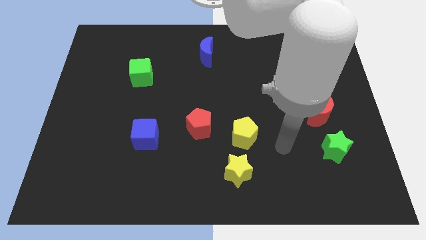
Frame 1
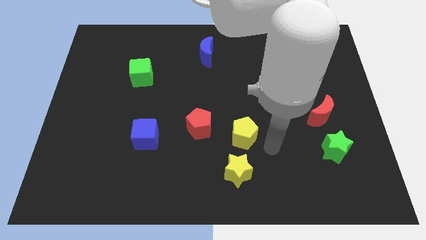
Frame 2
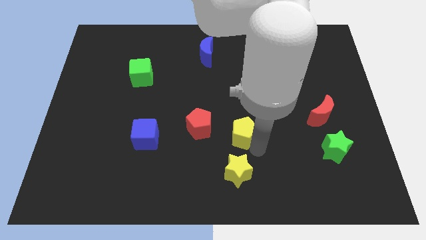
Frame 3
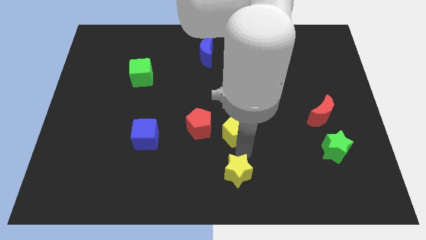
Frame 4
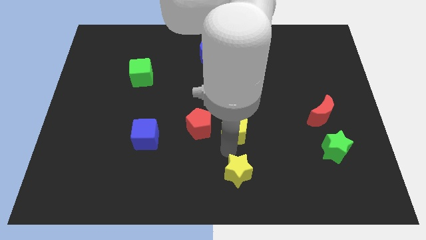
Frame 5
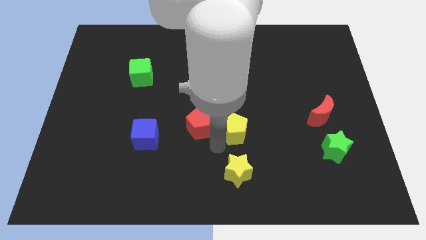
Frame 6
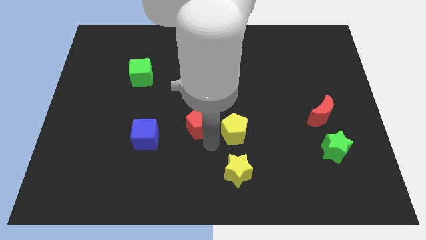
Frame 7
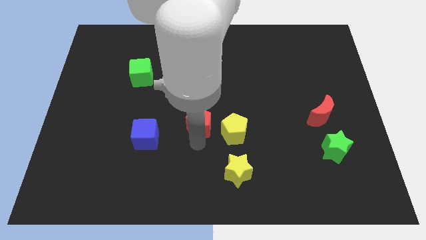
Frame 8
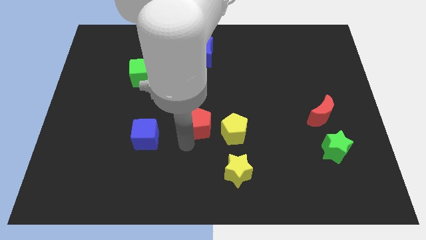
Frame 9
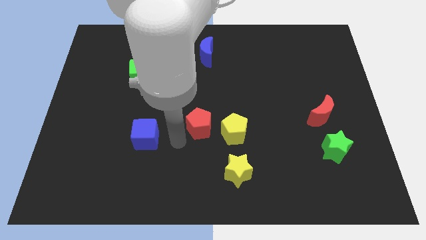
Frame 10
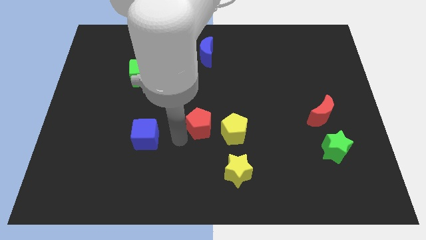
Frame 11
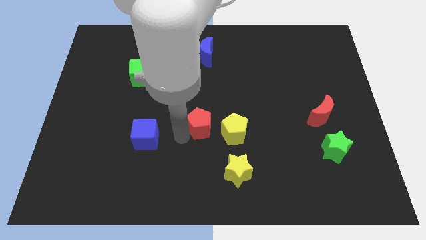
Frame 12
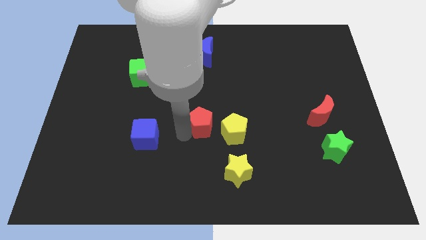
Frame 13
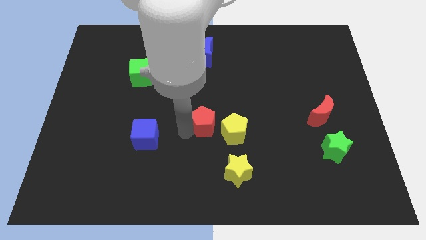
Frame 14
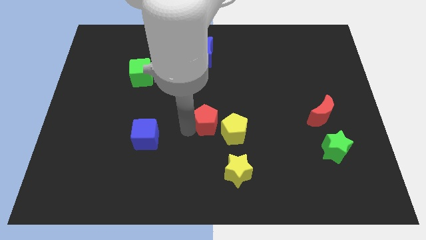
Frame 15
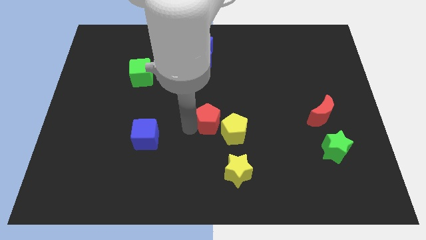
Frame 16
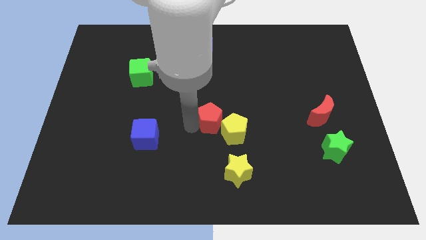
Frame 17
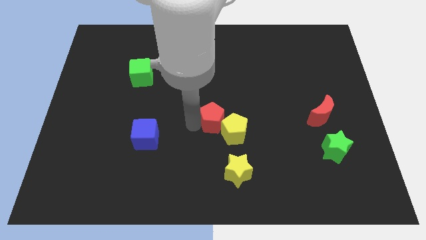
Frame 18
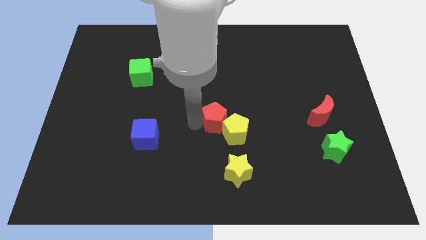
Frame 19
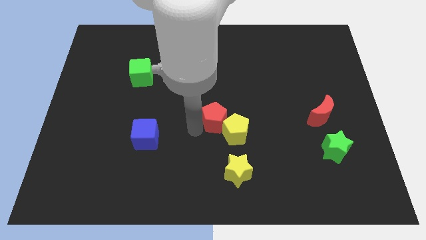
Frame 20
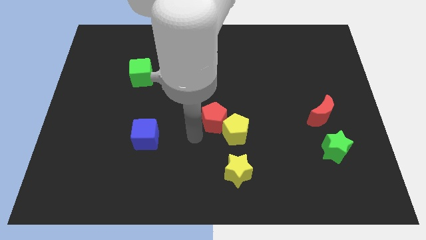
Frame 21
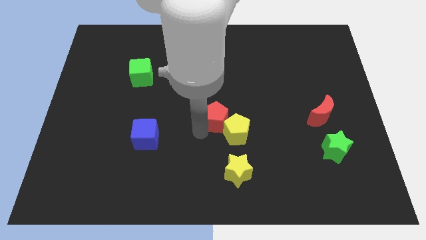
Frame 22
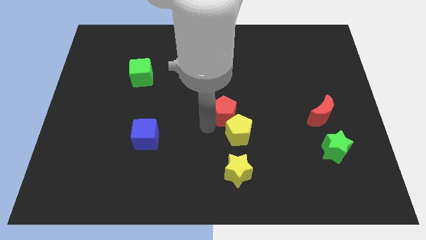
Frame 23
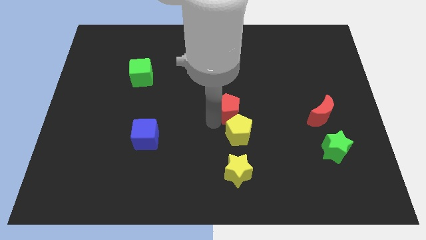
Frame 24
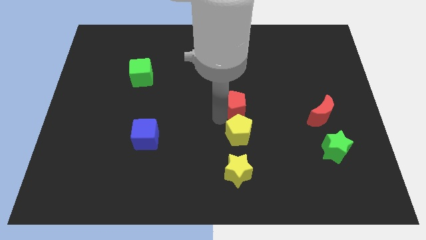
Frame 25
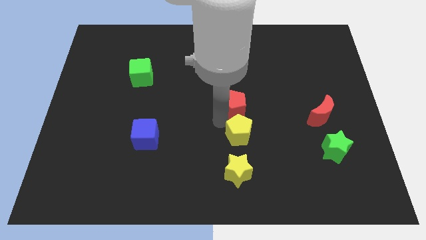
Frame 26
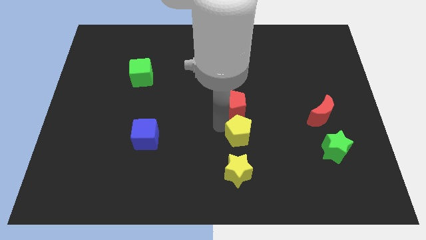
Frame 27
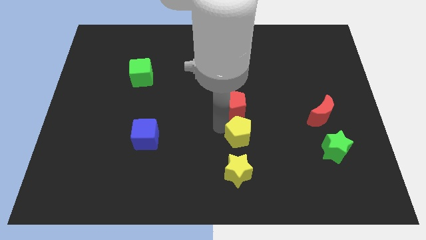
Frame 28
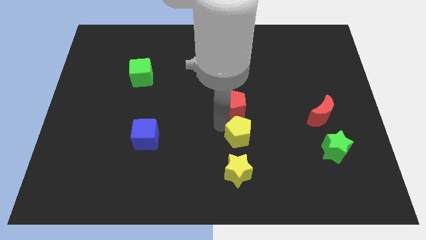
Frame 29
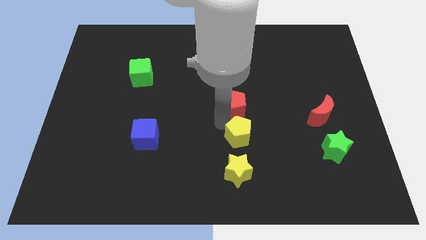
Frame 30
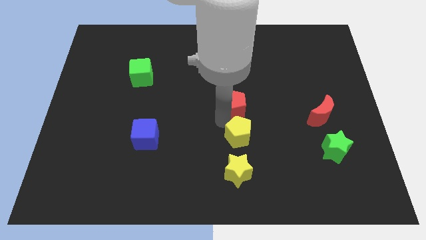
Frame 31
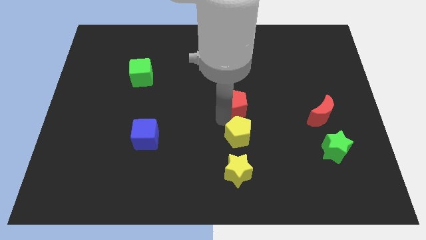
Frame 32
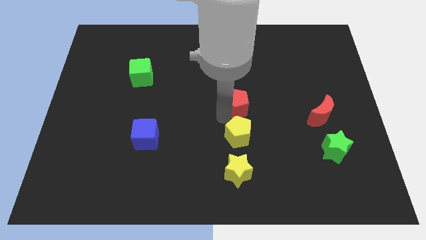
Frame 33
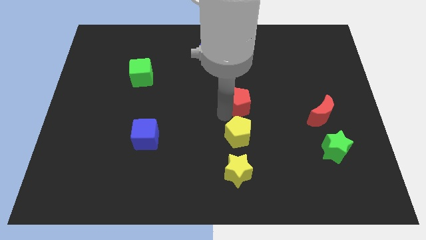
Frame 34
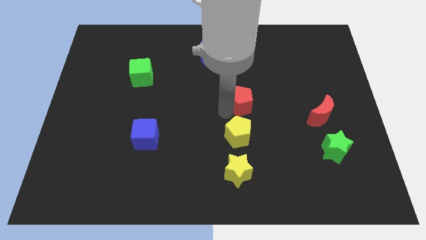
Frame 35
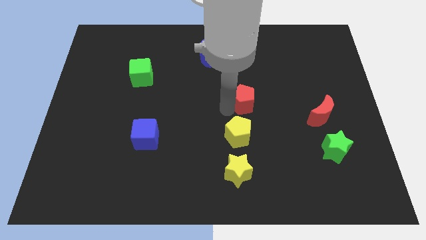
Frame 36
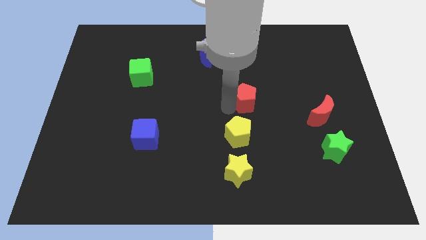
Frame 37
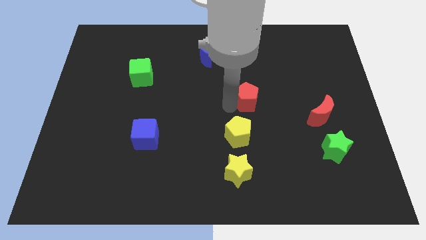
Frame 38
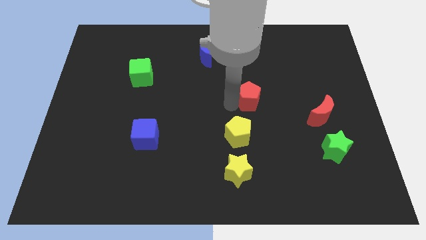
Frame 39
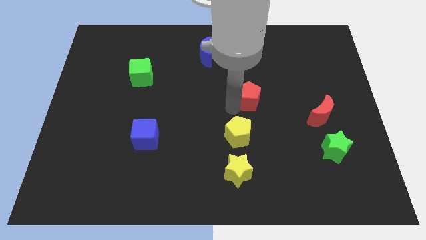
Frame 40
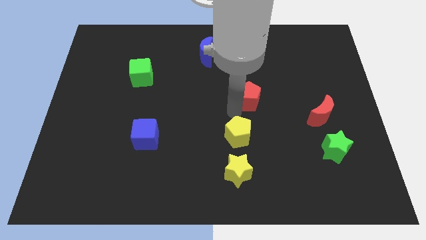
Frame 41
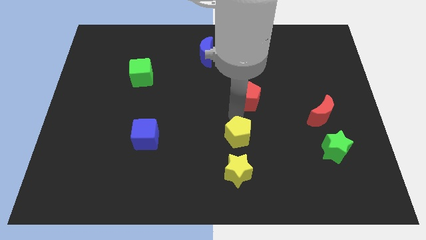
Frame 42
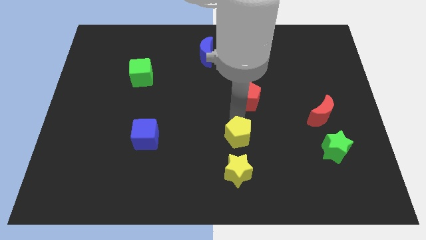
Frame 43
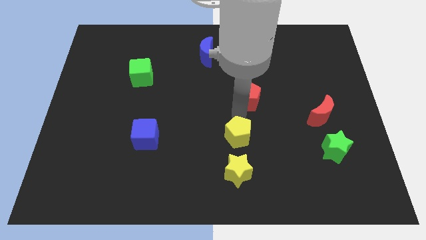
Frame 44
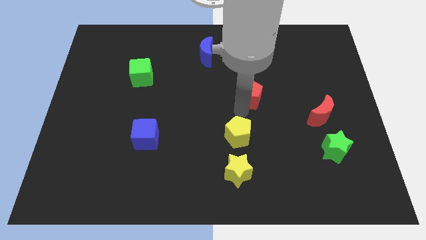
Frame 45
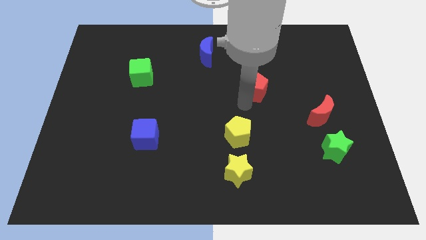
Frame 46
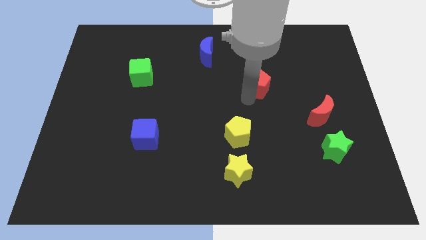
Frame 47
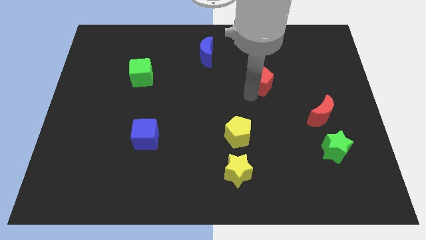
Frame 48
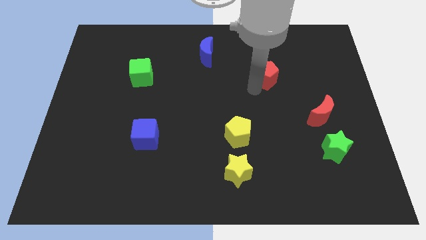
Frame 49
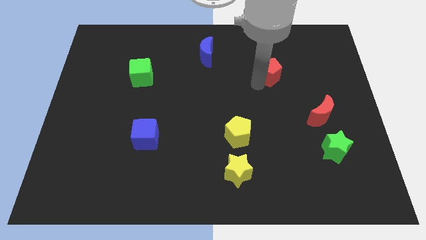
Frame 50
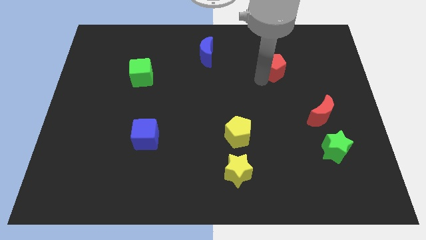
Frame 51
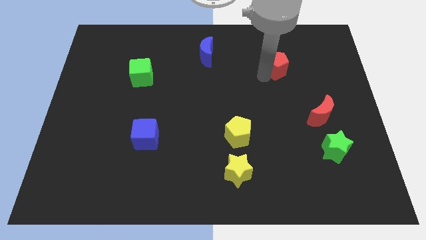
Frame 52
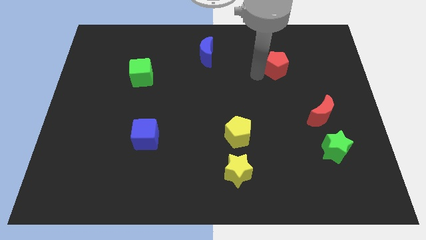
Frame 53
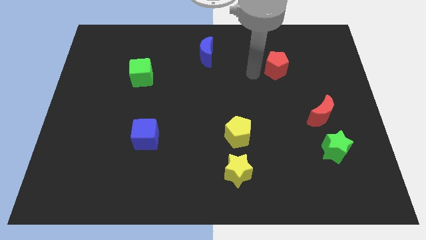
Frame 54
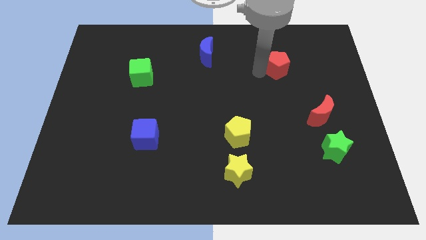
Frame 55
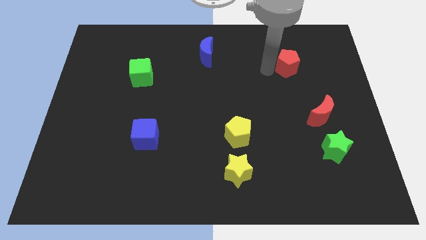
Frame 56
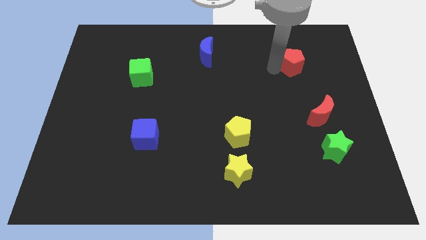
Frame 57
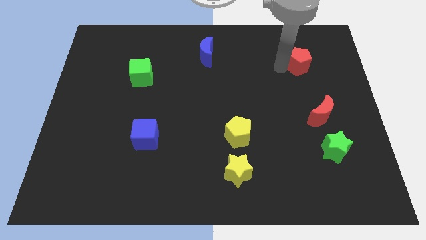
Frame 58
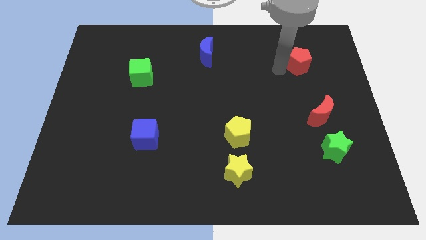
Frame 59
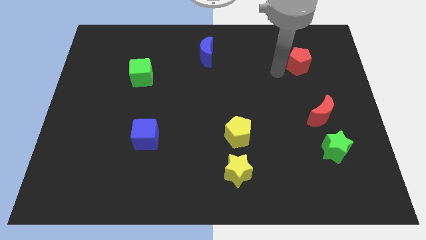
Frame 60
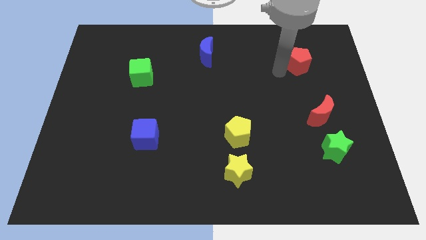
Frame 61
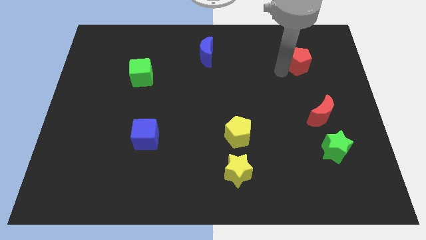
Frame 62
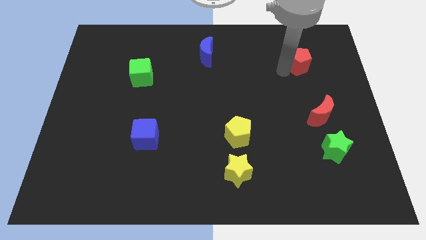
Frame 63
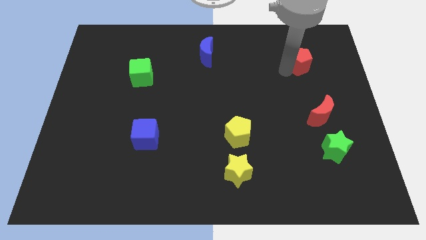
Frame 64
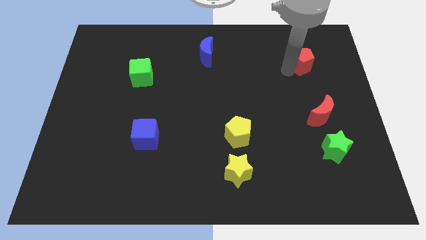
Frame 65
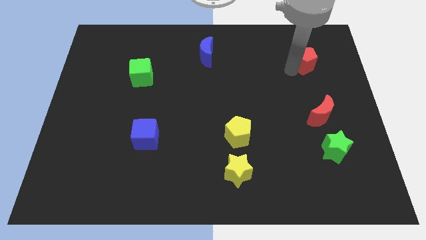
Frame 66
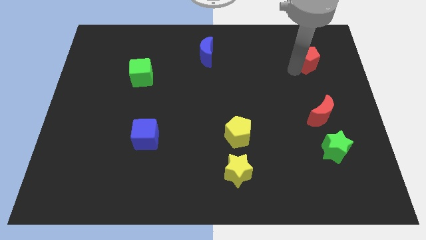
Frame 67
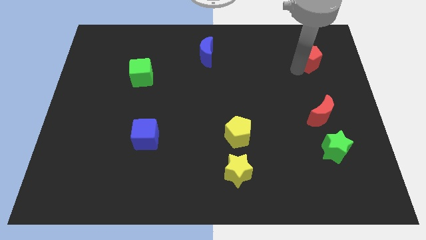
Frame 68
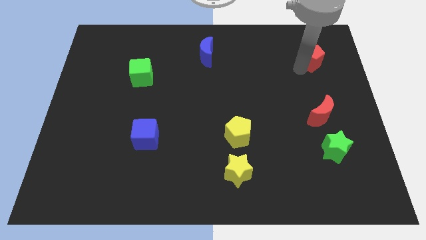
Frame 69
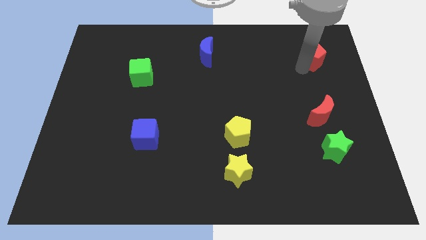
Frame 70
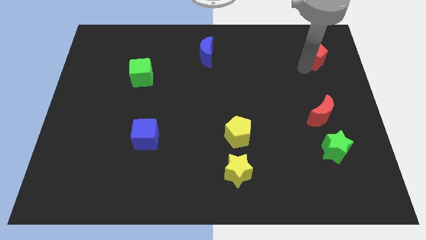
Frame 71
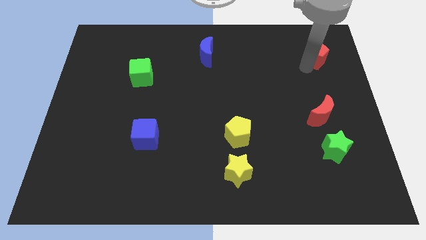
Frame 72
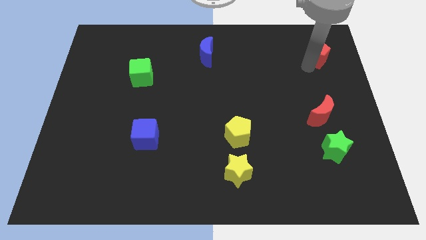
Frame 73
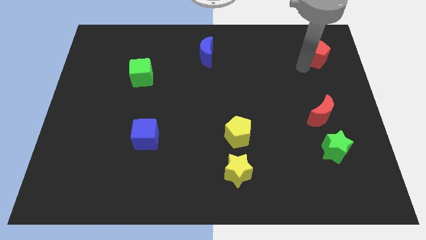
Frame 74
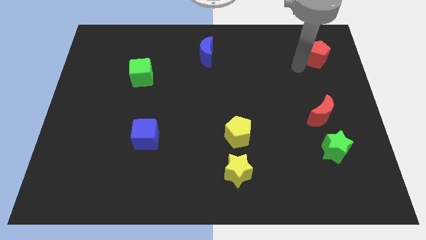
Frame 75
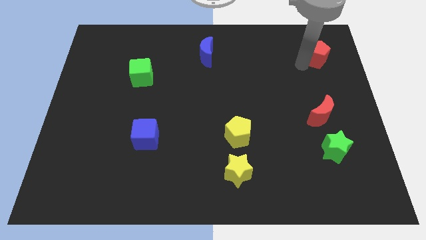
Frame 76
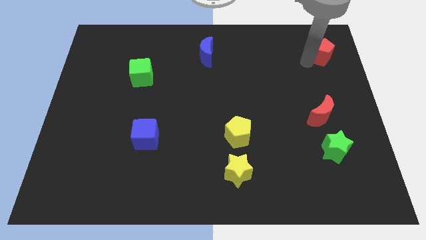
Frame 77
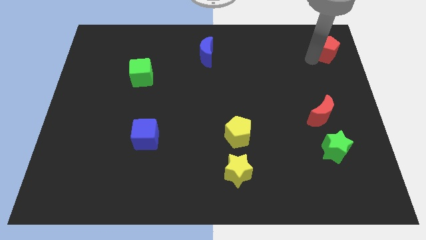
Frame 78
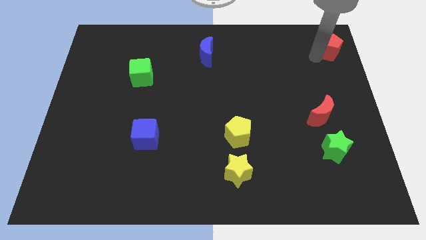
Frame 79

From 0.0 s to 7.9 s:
push the red pentagon to the top right

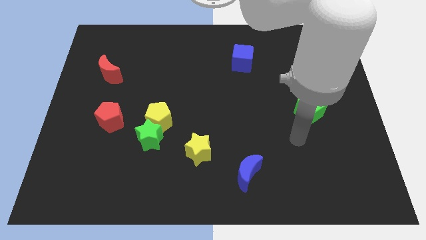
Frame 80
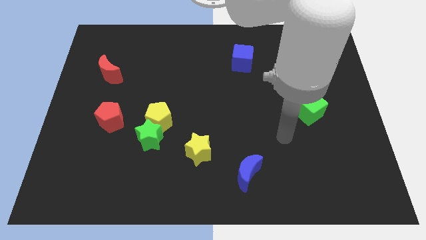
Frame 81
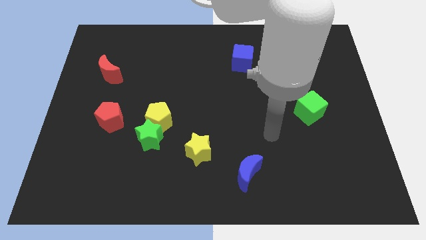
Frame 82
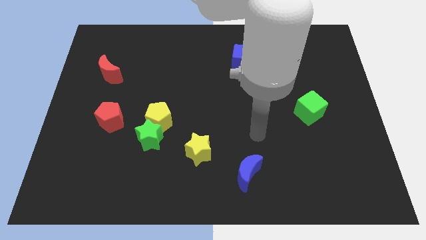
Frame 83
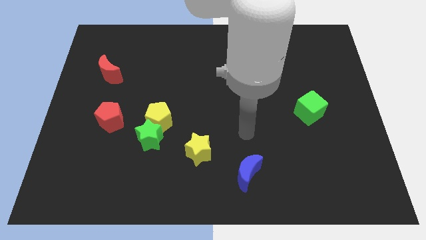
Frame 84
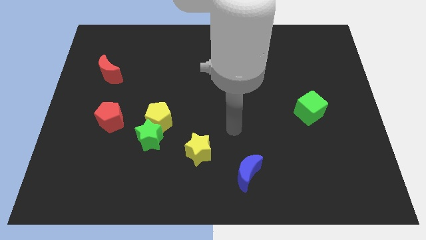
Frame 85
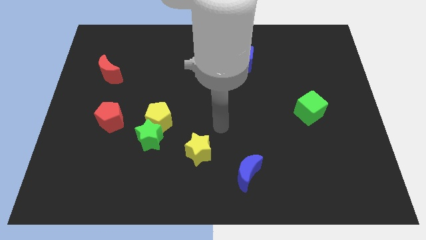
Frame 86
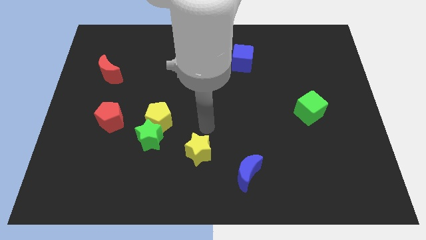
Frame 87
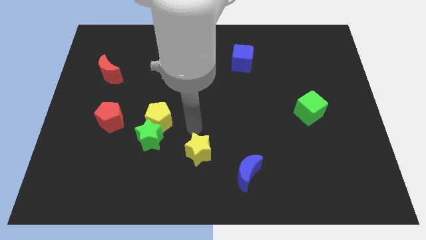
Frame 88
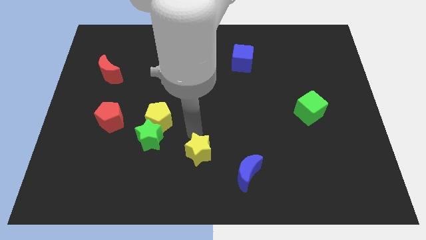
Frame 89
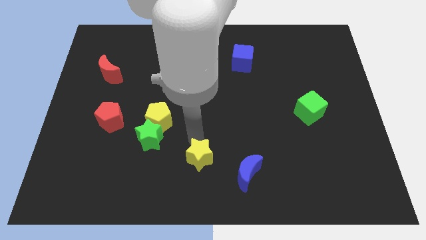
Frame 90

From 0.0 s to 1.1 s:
slide the yellow star to the bottom side
